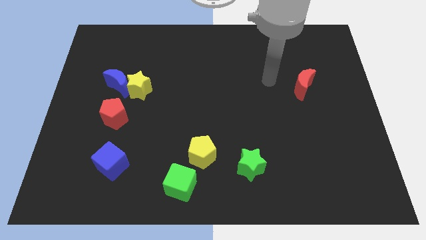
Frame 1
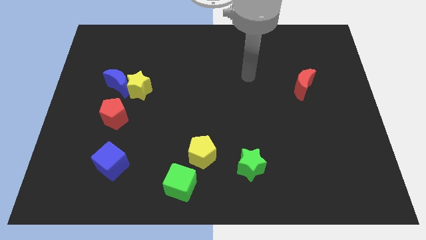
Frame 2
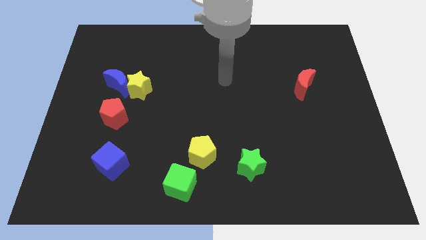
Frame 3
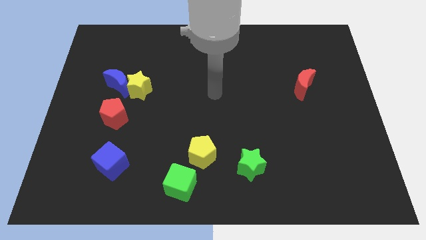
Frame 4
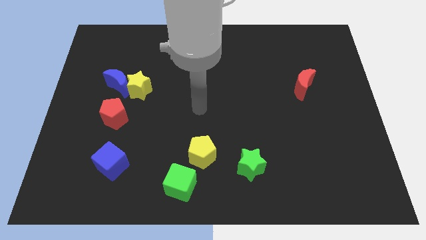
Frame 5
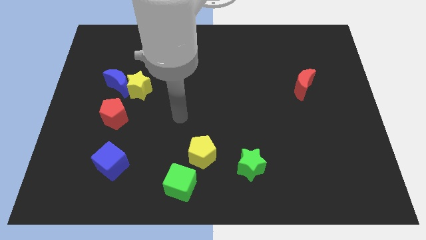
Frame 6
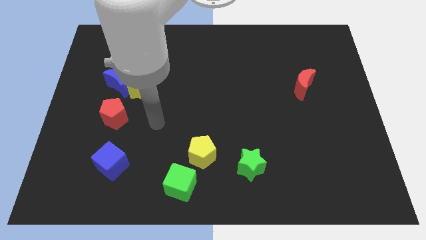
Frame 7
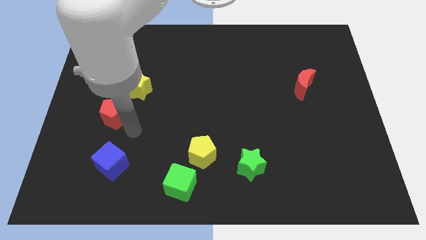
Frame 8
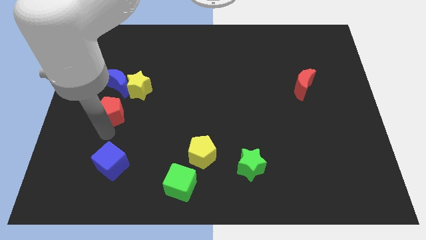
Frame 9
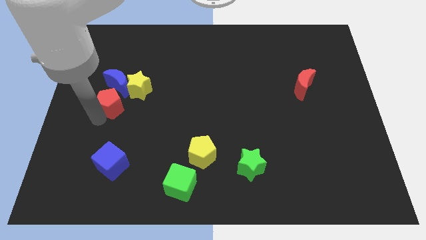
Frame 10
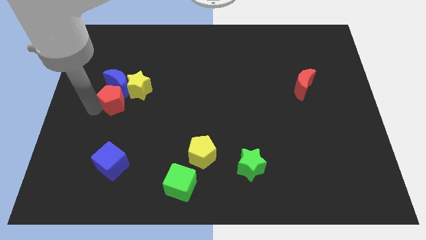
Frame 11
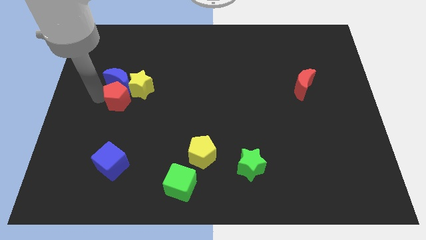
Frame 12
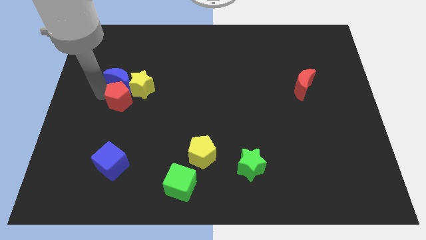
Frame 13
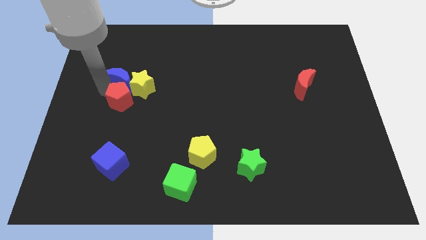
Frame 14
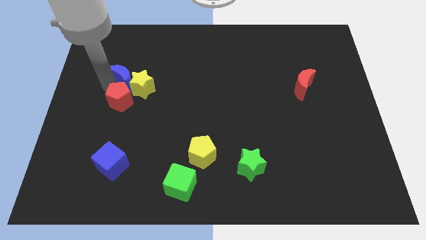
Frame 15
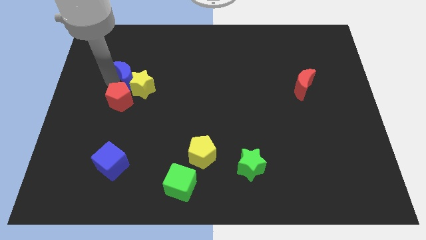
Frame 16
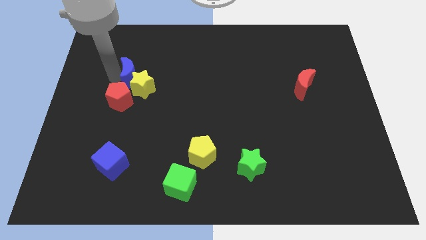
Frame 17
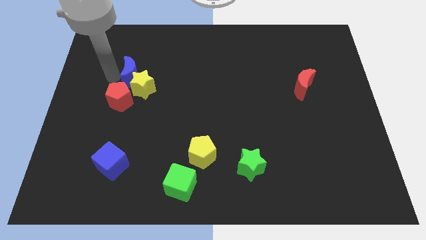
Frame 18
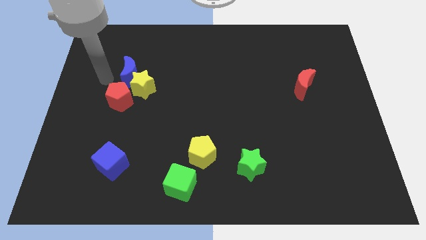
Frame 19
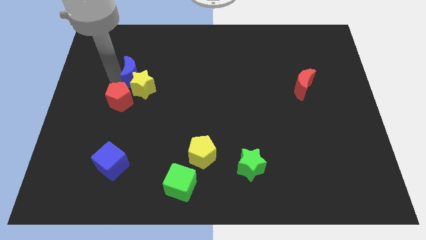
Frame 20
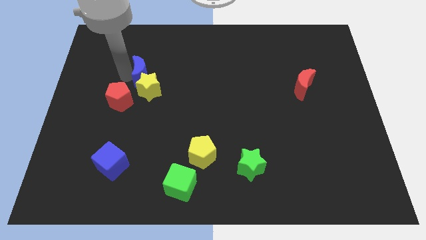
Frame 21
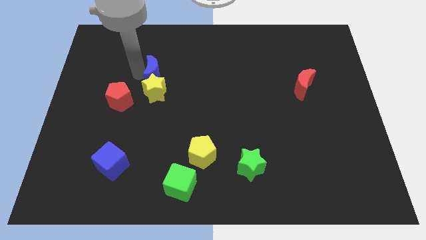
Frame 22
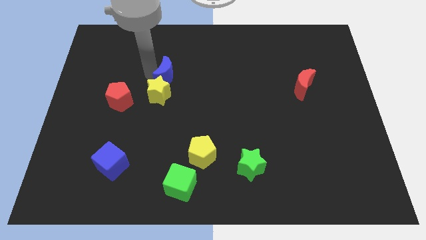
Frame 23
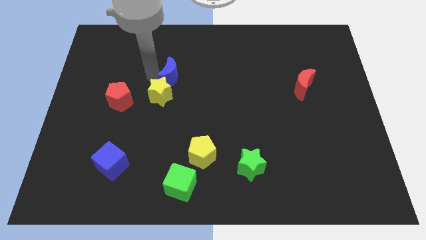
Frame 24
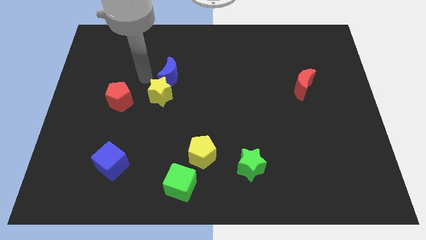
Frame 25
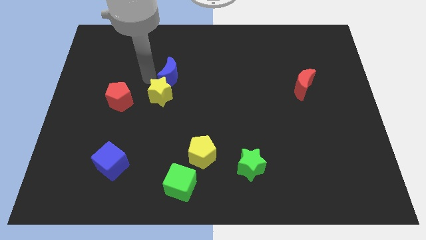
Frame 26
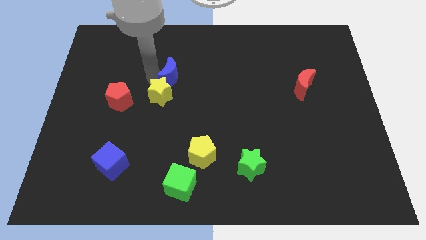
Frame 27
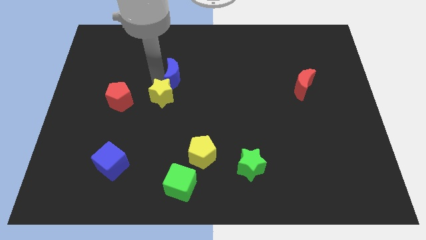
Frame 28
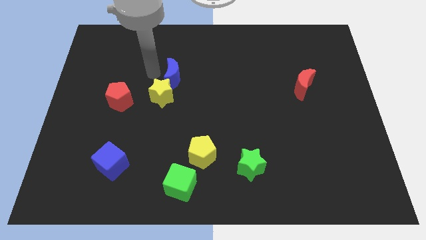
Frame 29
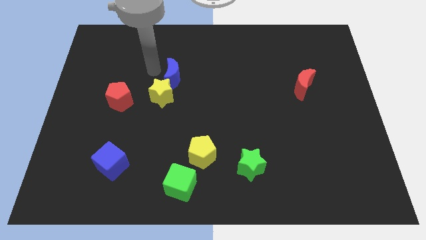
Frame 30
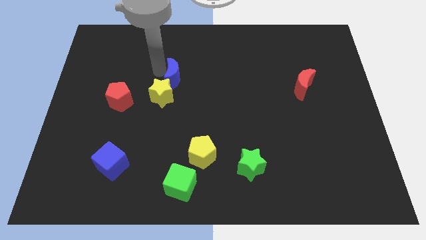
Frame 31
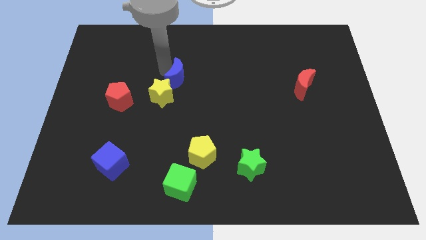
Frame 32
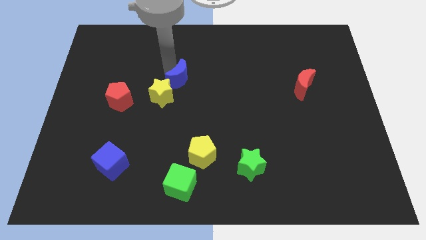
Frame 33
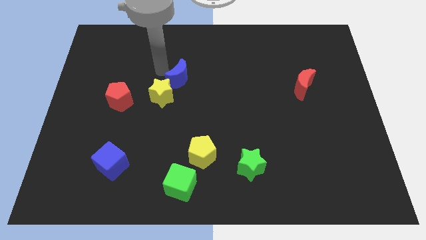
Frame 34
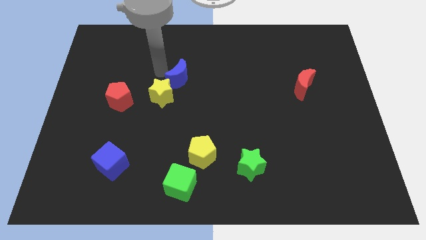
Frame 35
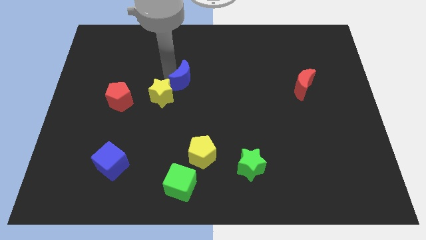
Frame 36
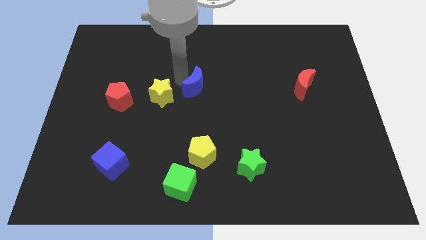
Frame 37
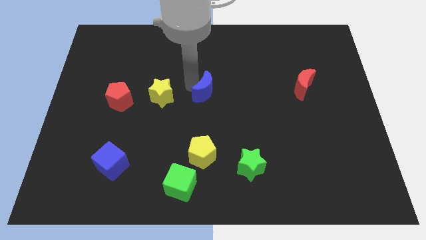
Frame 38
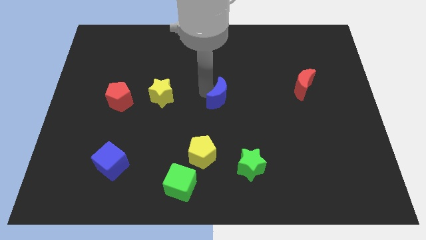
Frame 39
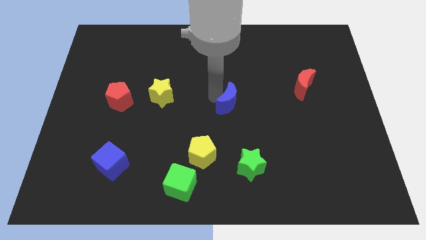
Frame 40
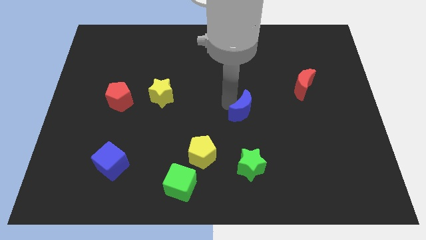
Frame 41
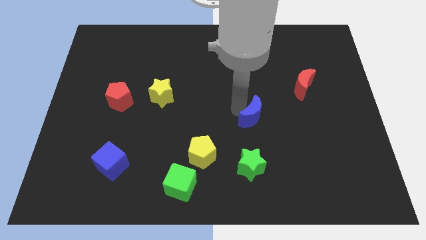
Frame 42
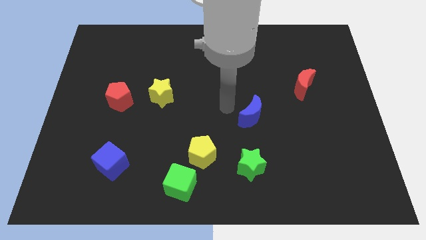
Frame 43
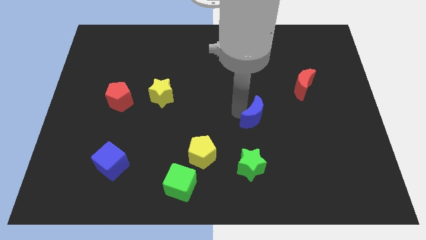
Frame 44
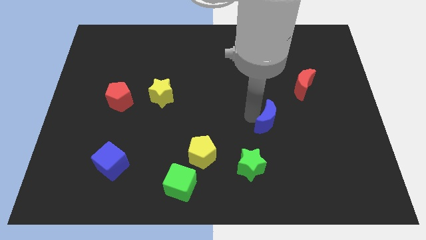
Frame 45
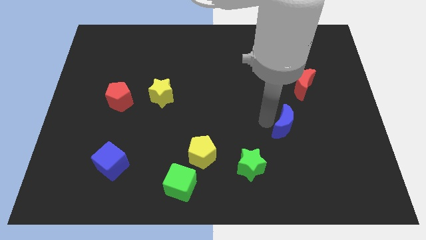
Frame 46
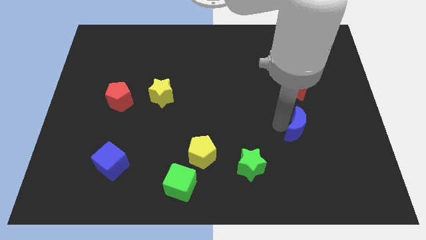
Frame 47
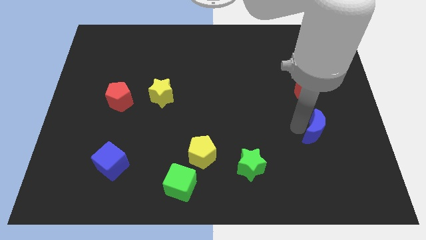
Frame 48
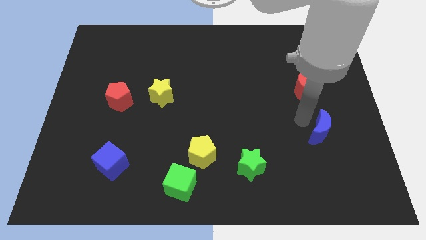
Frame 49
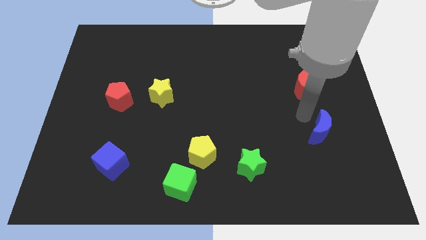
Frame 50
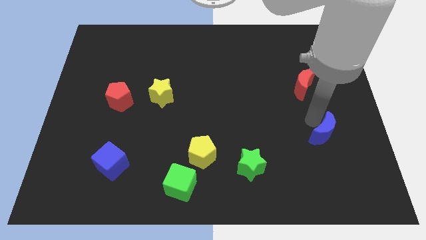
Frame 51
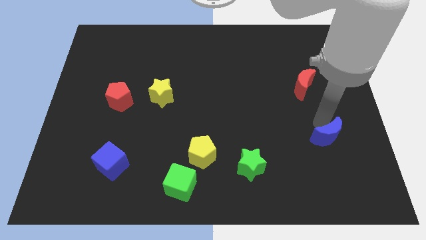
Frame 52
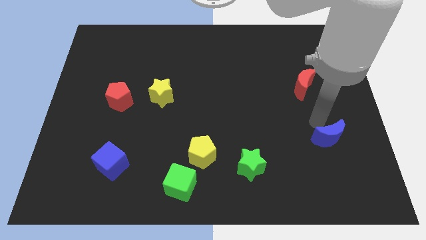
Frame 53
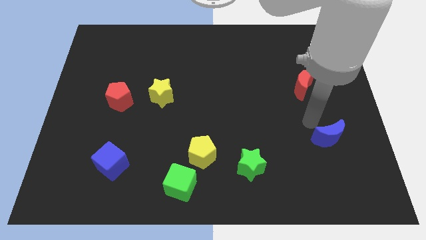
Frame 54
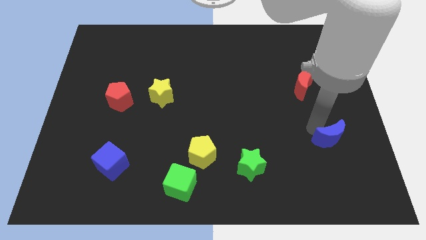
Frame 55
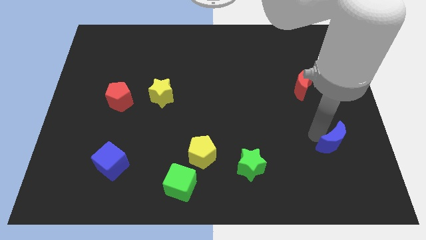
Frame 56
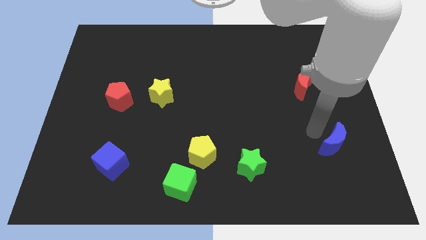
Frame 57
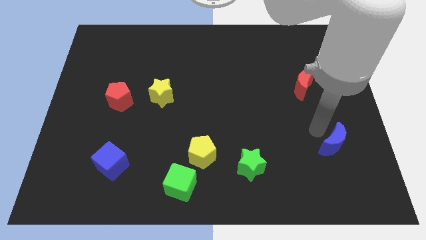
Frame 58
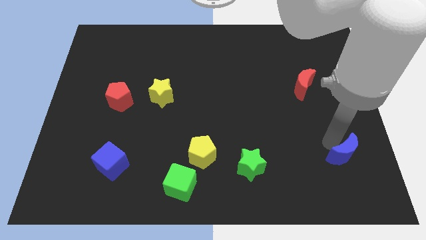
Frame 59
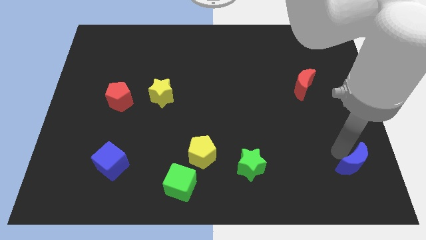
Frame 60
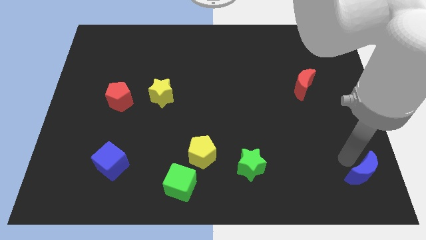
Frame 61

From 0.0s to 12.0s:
put the blue moon to the bottom right
